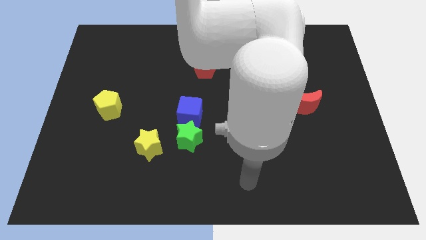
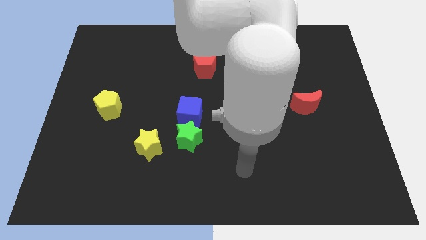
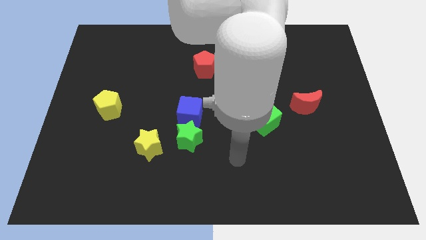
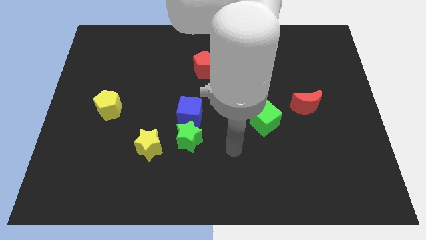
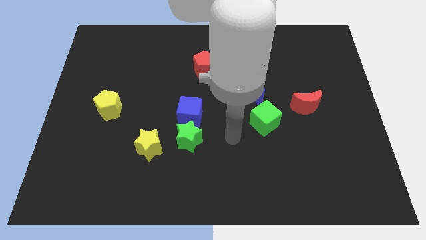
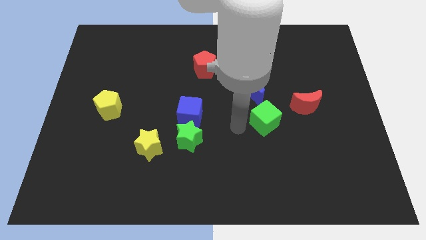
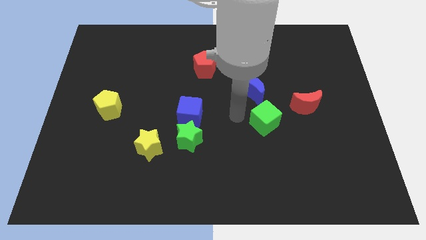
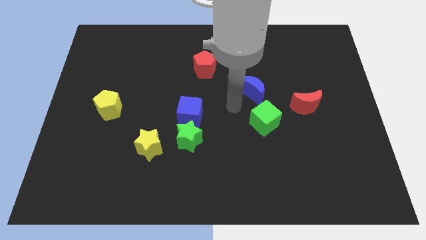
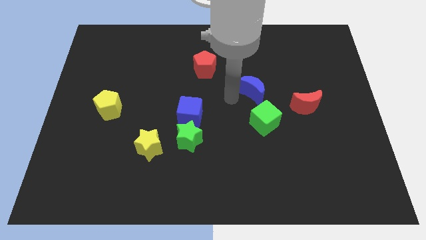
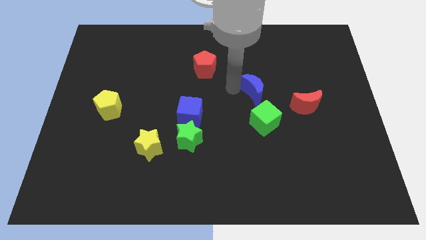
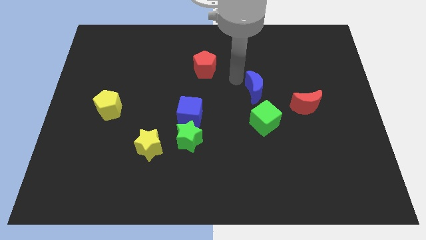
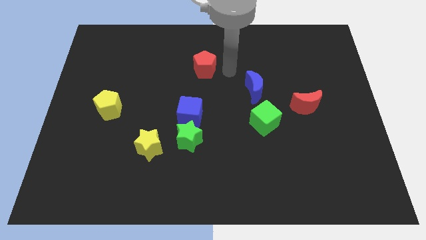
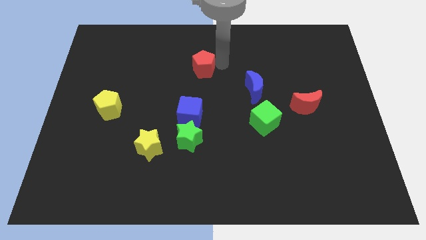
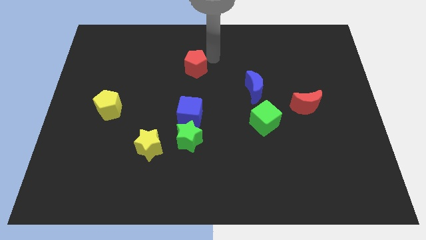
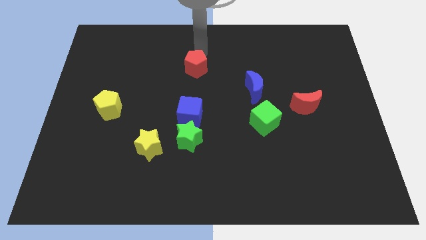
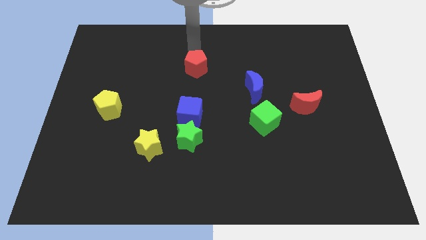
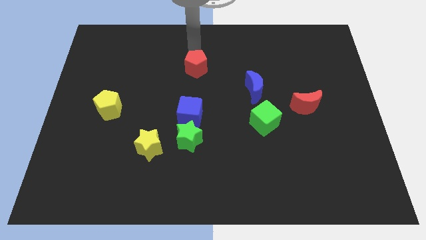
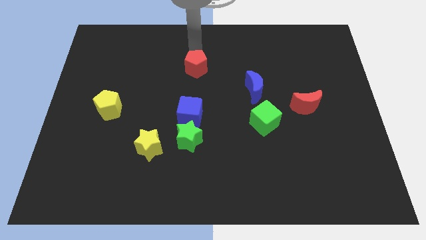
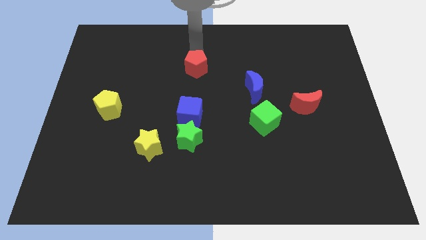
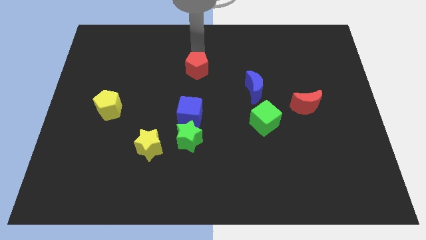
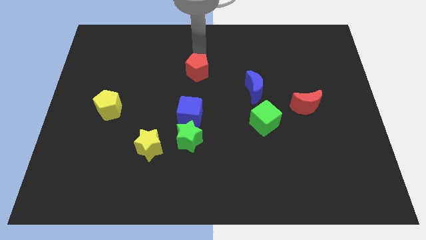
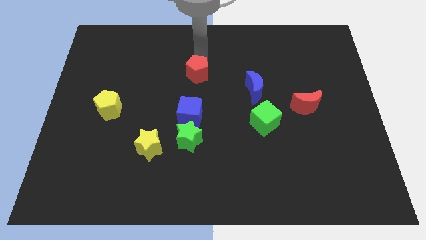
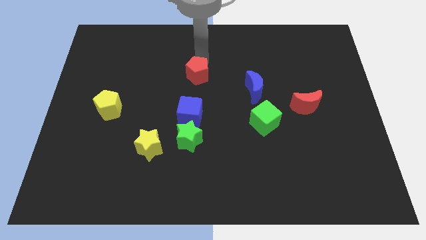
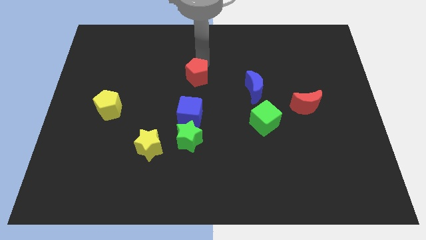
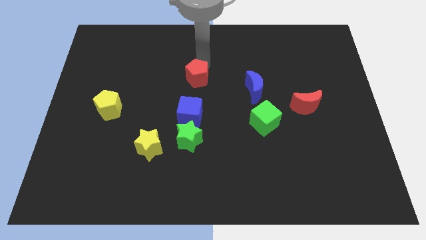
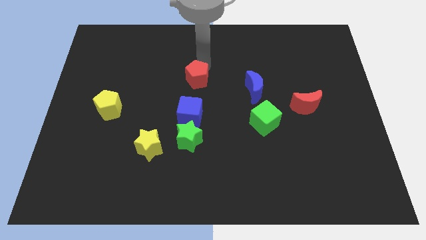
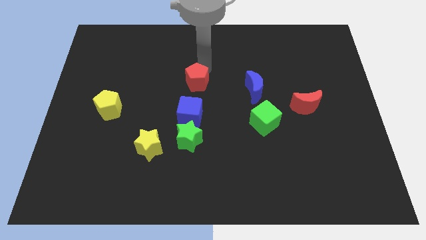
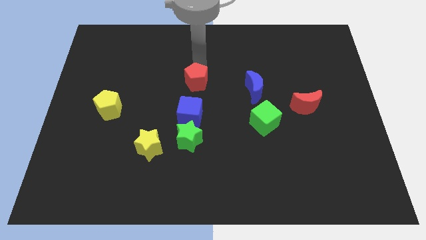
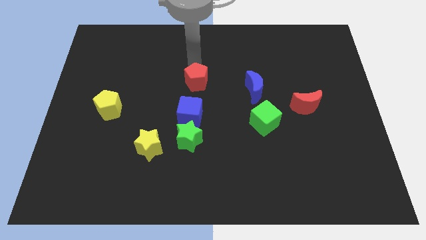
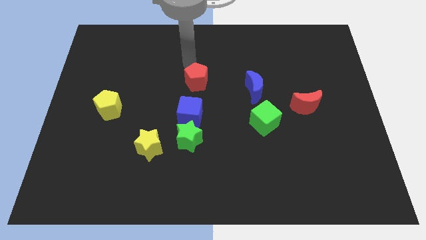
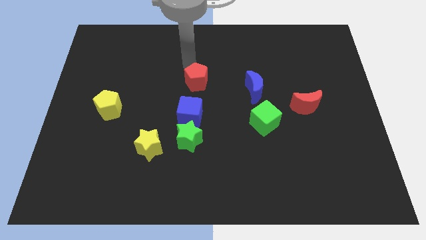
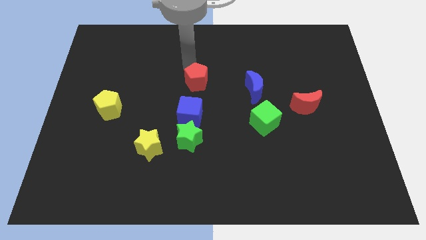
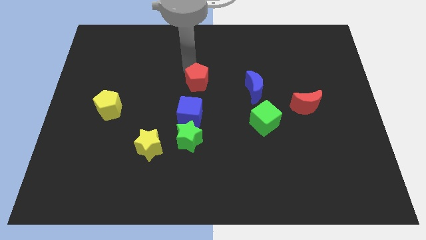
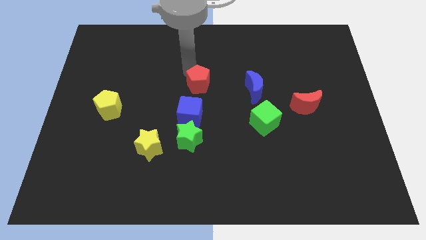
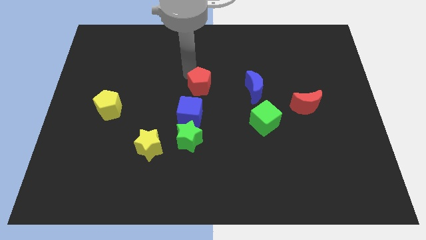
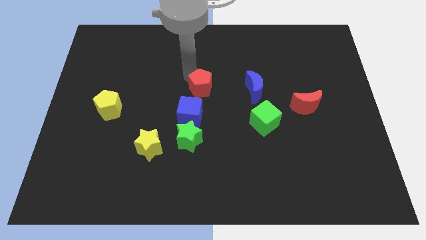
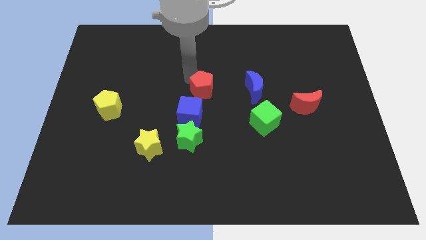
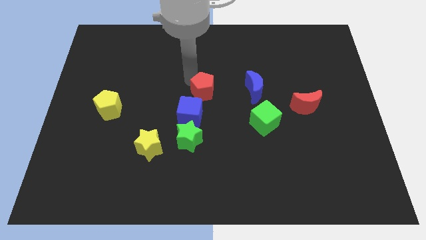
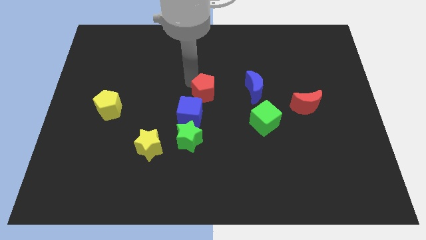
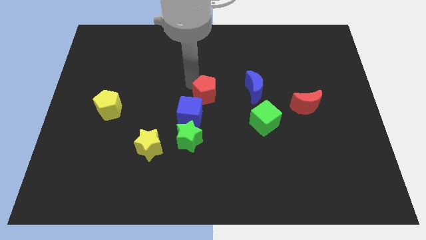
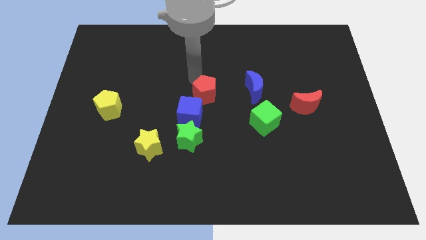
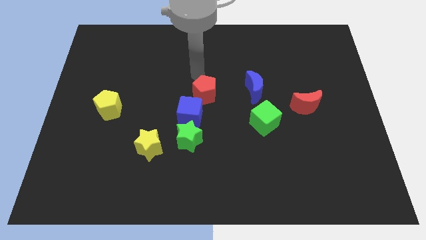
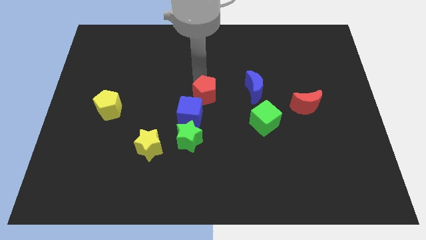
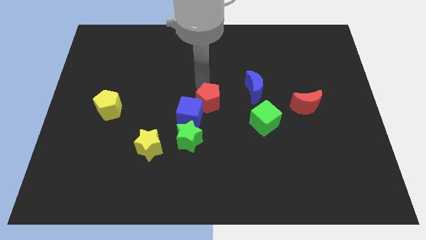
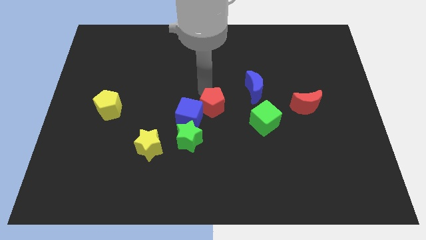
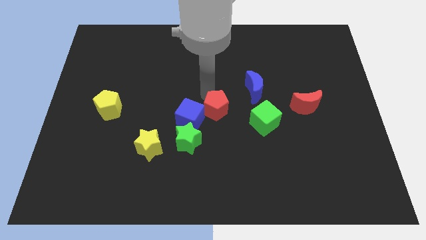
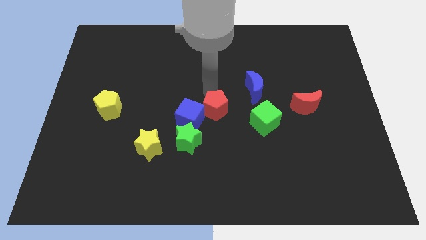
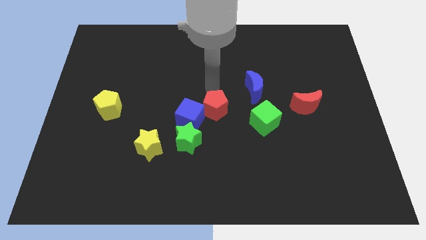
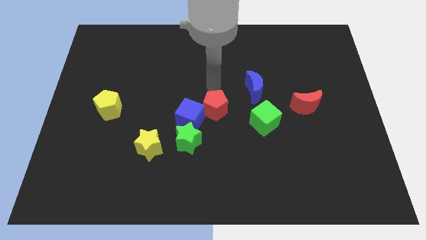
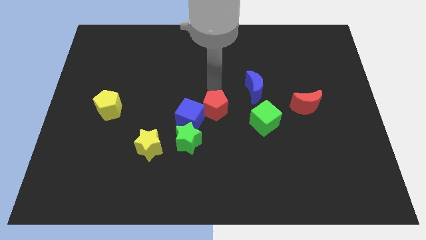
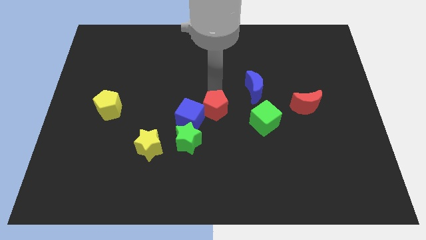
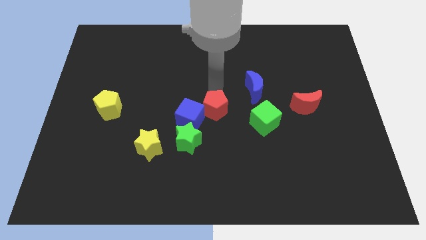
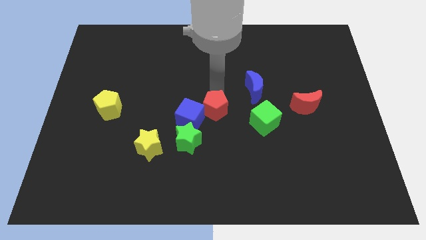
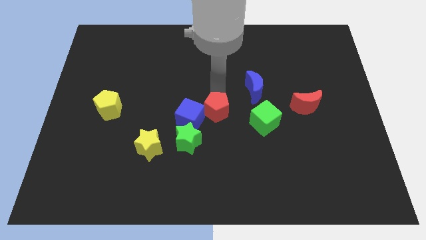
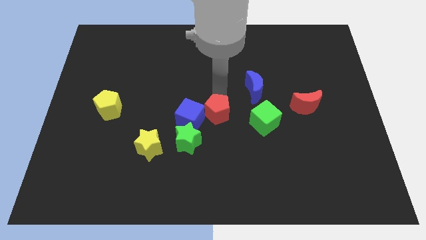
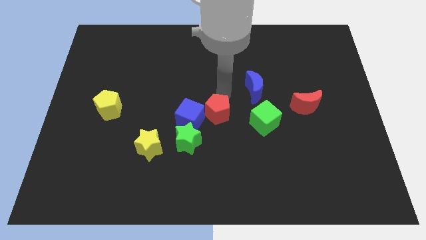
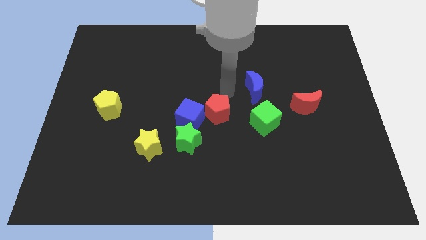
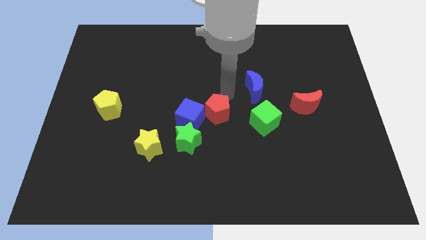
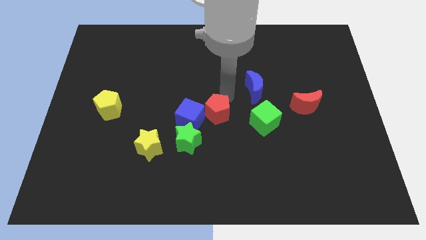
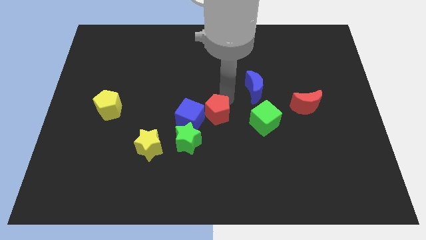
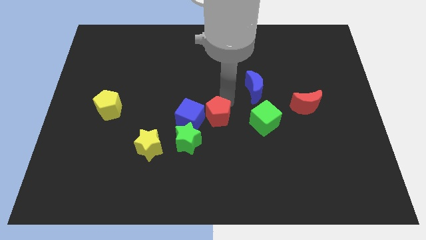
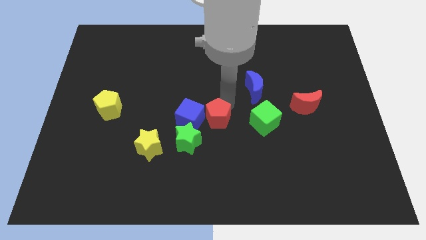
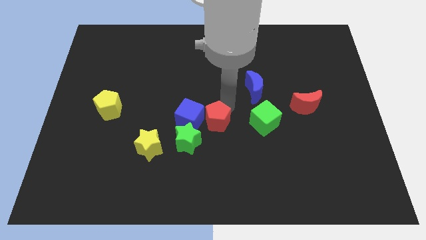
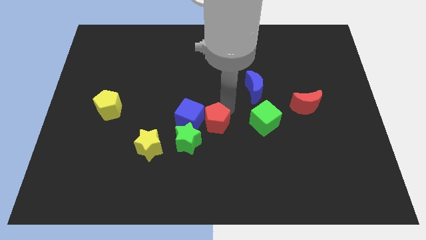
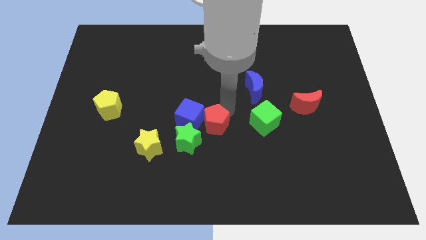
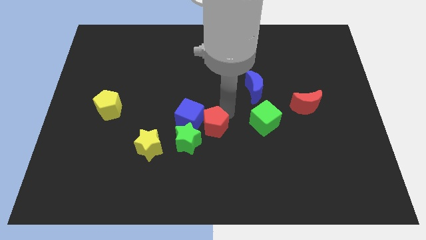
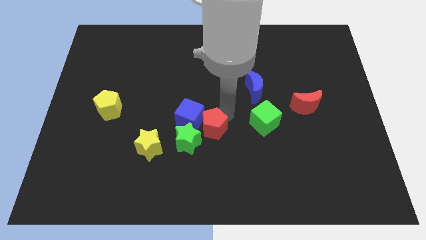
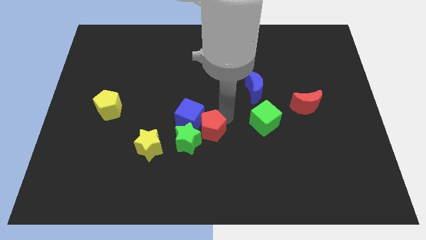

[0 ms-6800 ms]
put the red pentagon next to the green star

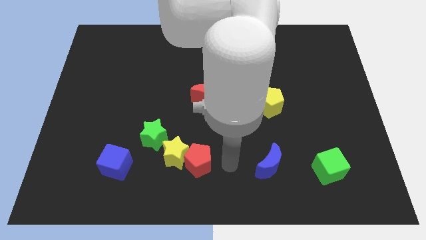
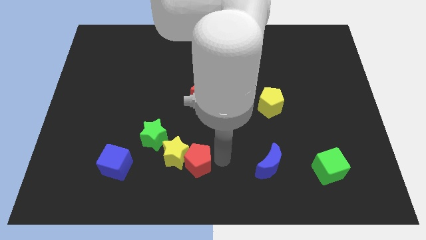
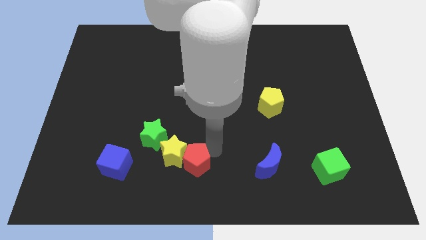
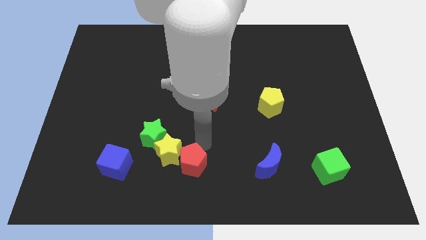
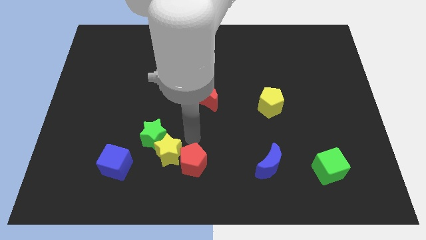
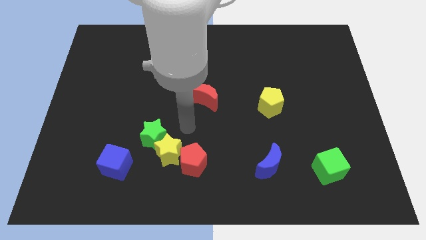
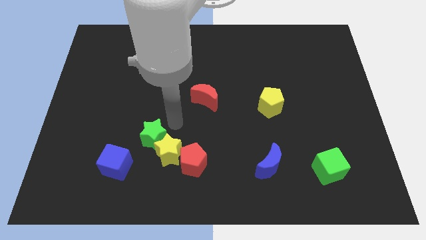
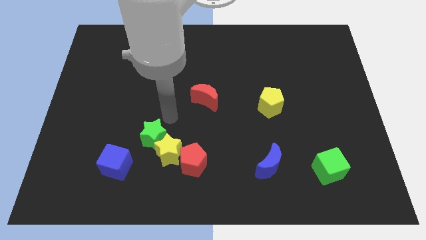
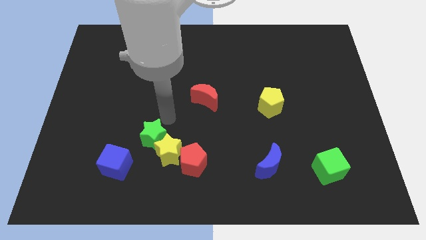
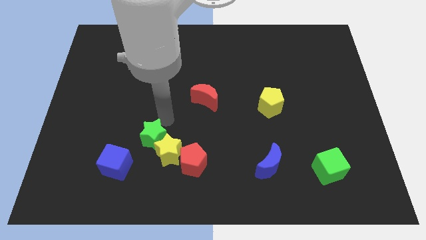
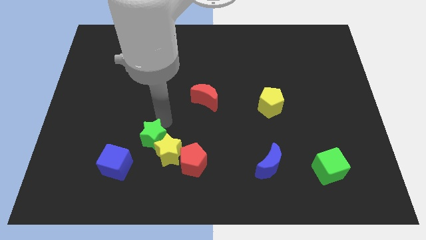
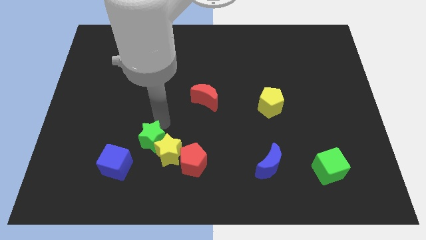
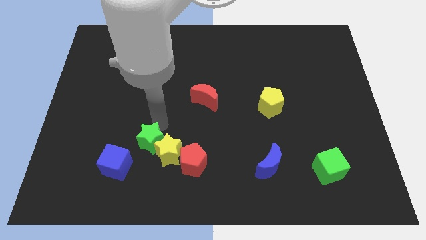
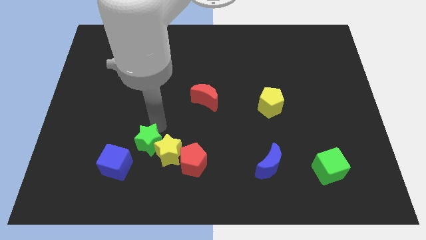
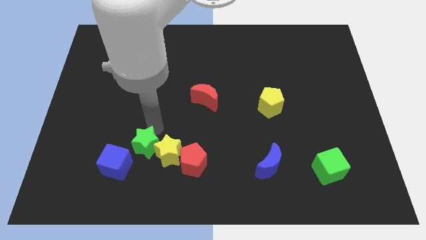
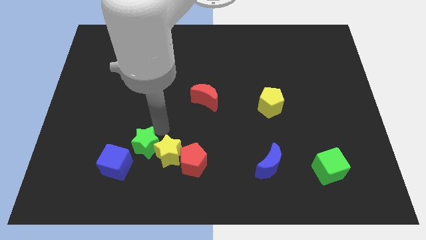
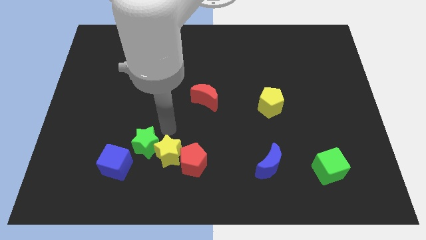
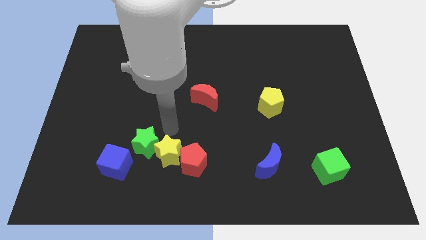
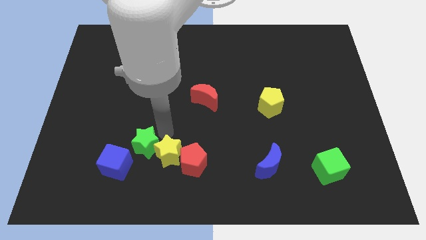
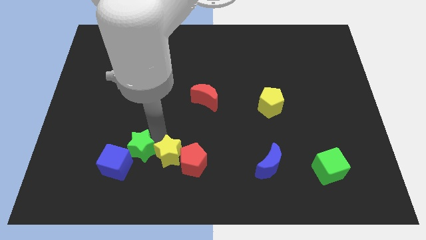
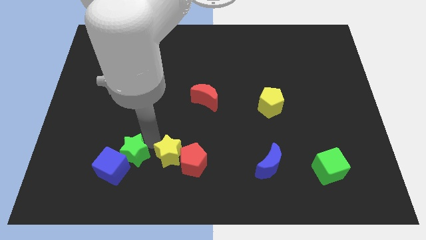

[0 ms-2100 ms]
put the green star next to the blue cube
